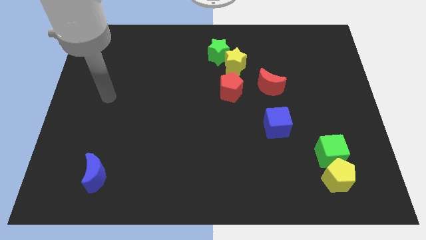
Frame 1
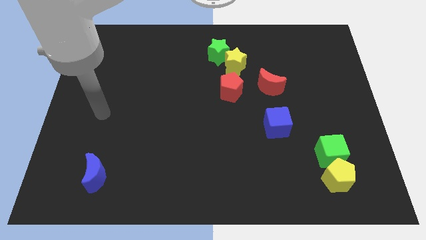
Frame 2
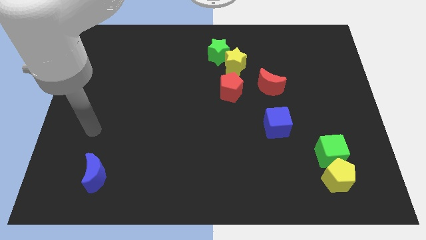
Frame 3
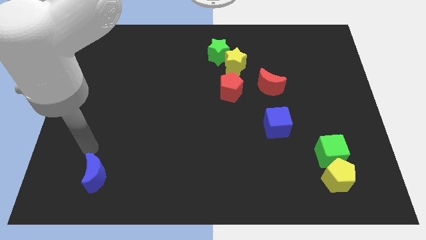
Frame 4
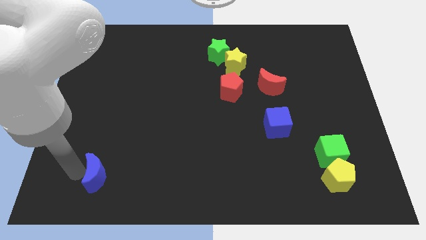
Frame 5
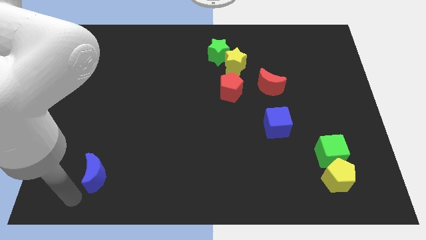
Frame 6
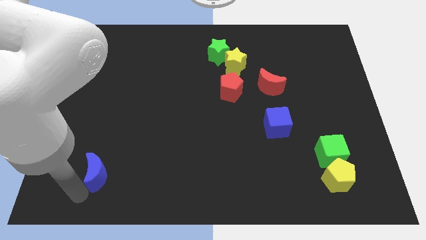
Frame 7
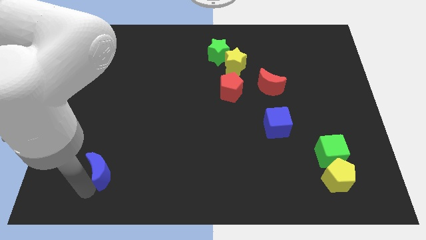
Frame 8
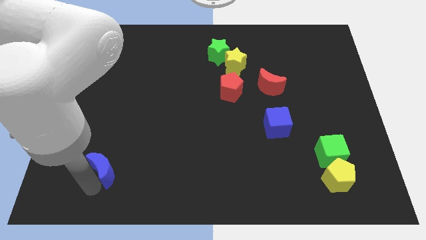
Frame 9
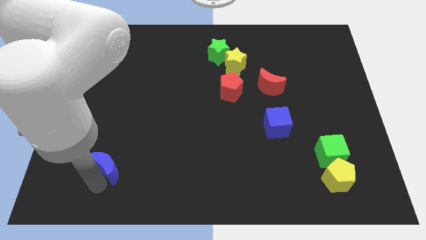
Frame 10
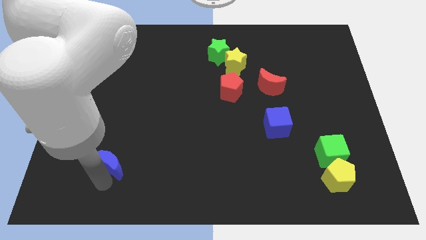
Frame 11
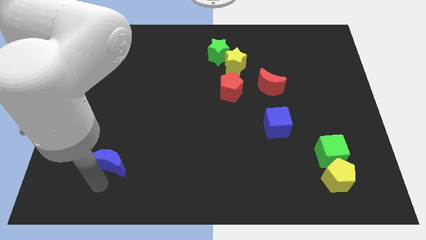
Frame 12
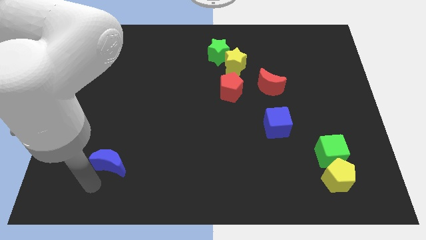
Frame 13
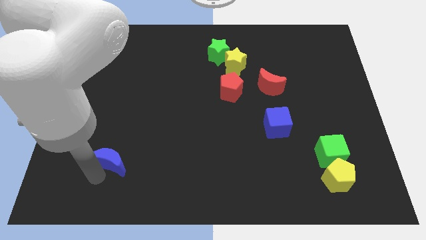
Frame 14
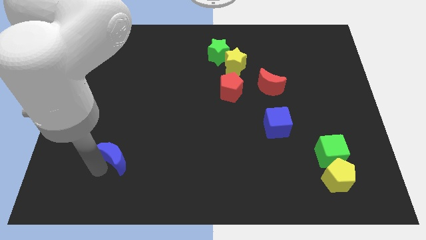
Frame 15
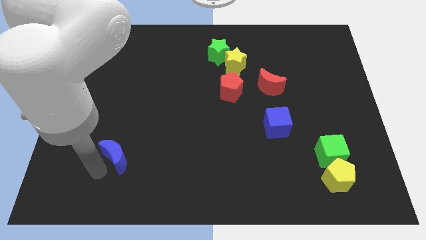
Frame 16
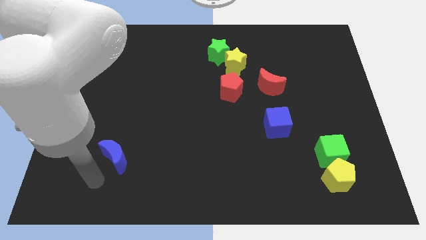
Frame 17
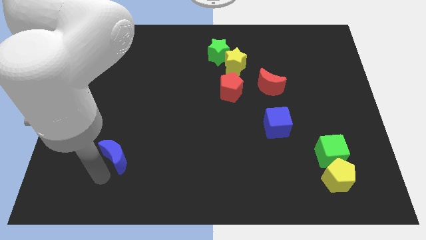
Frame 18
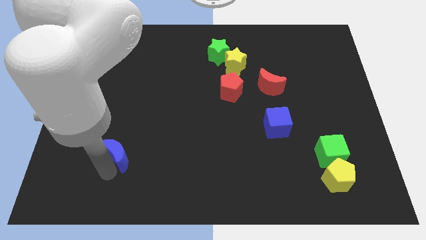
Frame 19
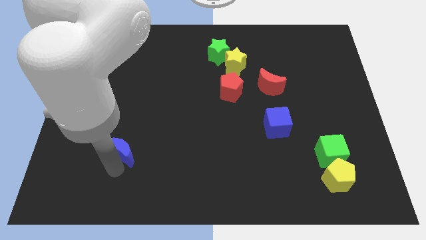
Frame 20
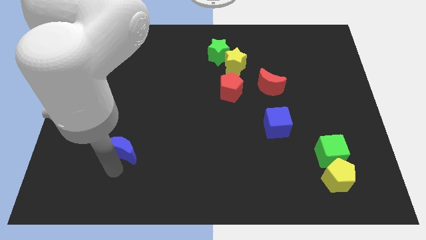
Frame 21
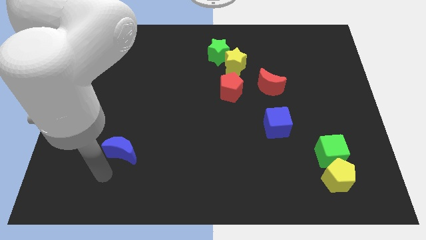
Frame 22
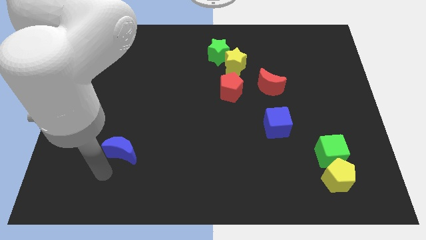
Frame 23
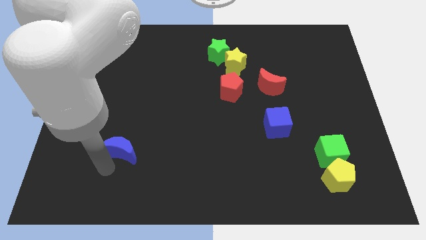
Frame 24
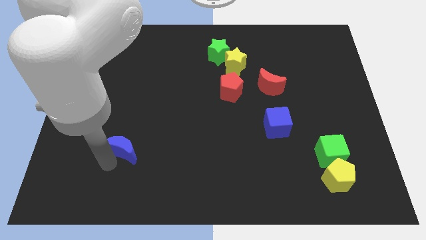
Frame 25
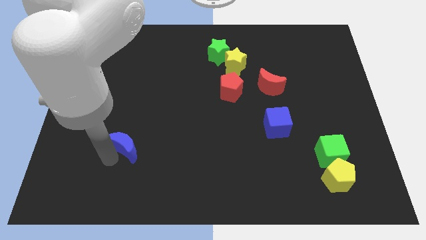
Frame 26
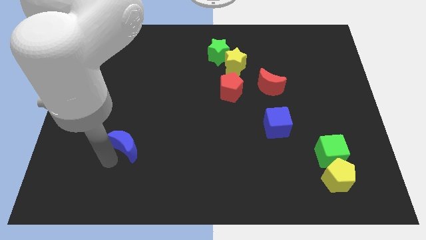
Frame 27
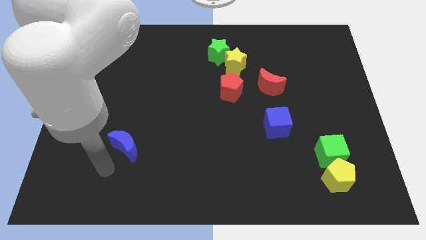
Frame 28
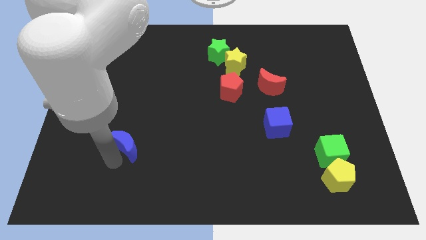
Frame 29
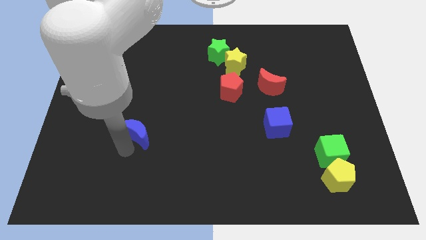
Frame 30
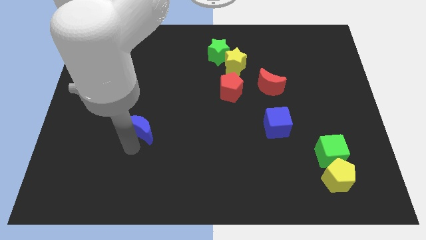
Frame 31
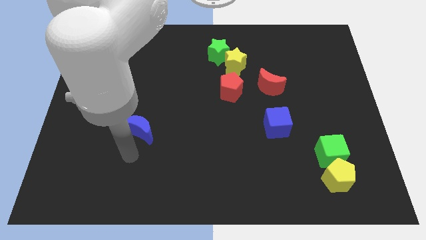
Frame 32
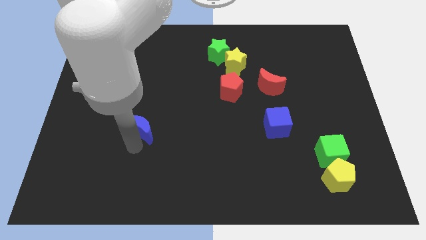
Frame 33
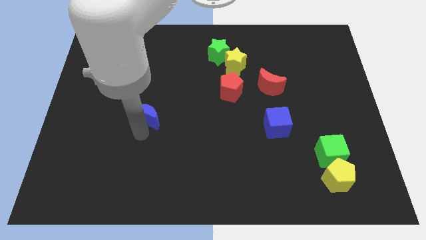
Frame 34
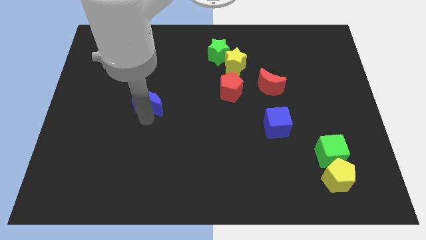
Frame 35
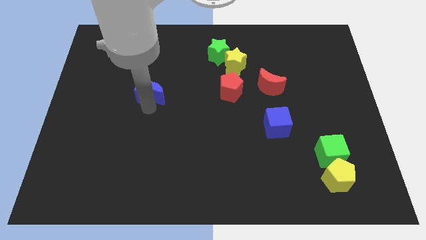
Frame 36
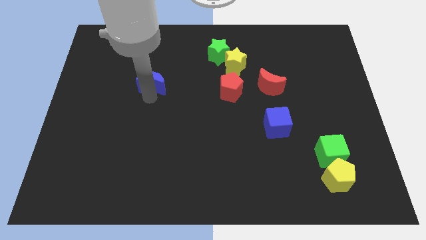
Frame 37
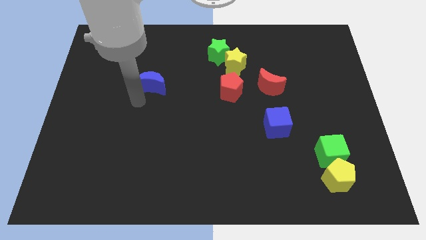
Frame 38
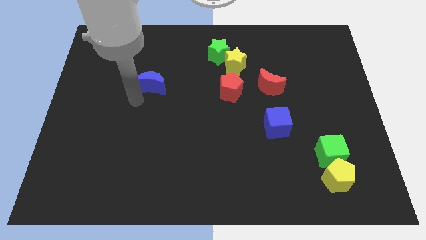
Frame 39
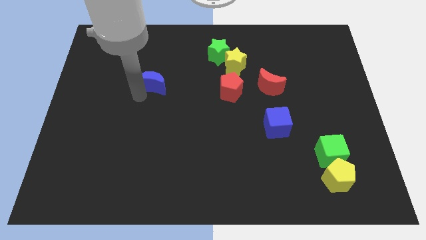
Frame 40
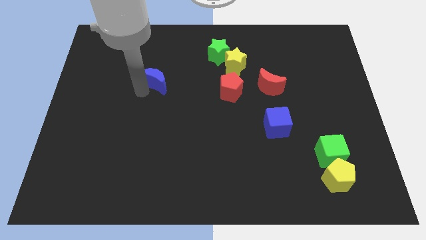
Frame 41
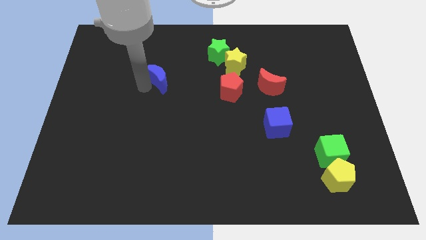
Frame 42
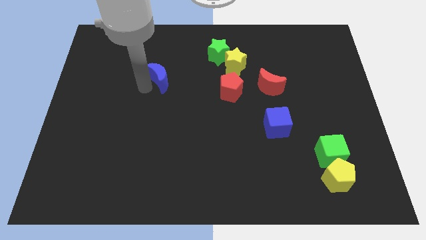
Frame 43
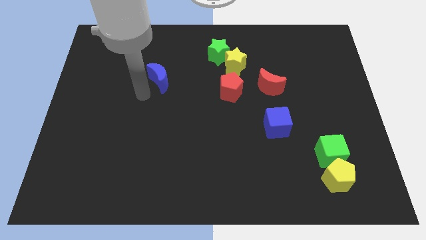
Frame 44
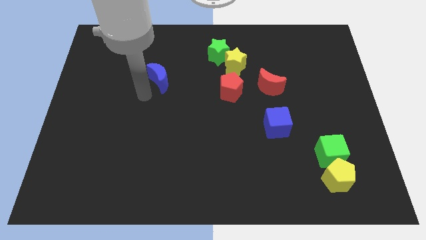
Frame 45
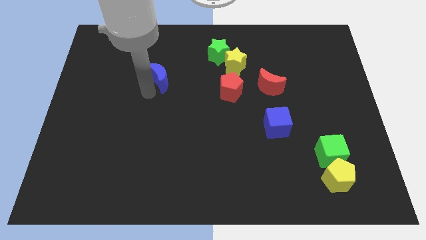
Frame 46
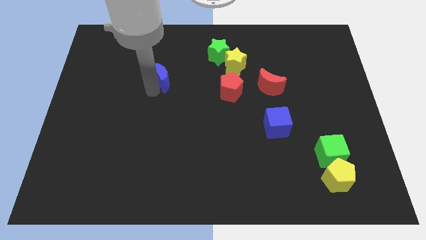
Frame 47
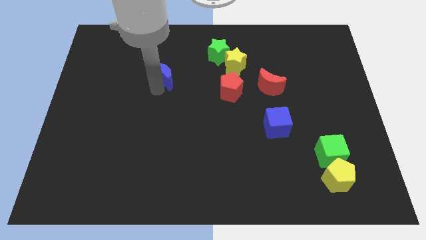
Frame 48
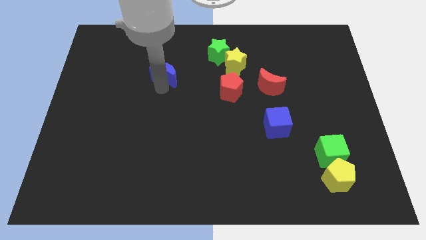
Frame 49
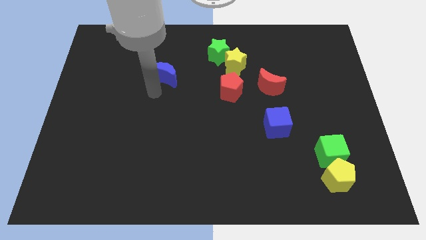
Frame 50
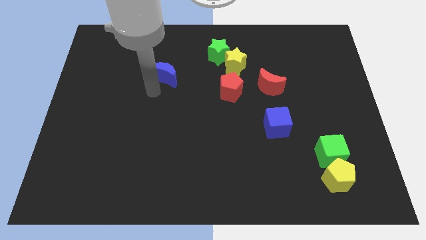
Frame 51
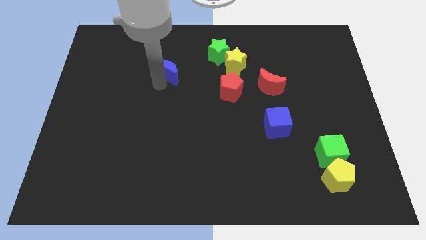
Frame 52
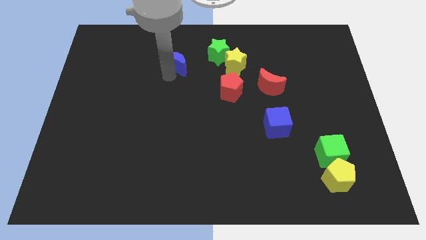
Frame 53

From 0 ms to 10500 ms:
slide the blue moon to the left side of the green star
